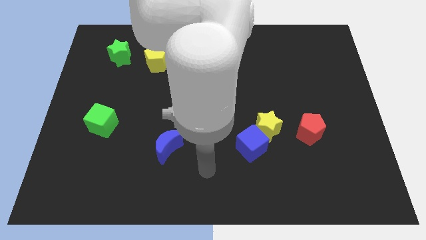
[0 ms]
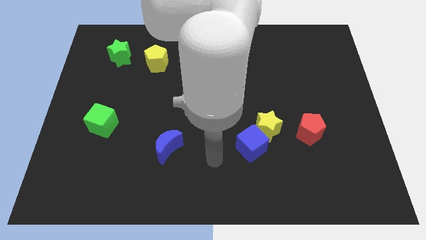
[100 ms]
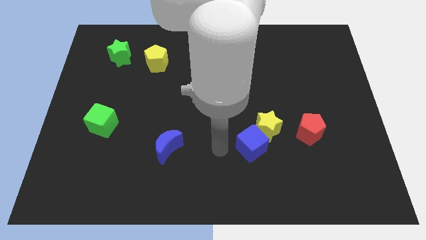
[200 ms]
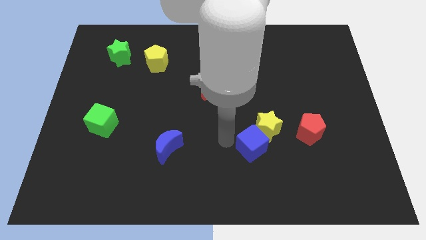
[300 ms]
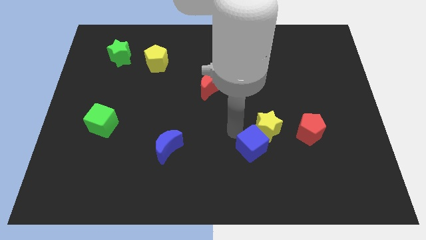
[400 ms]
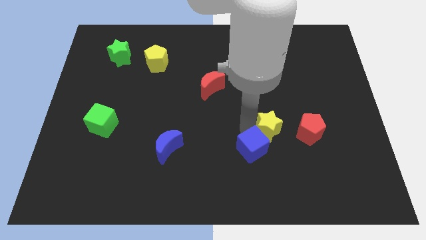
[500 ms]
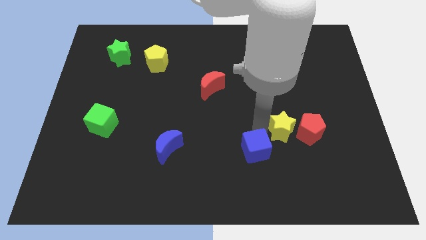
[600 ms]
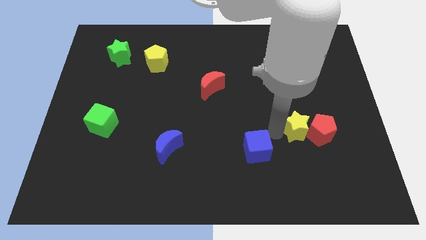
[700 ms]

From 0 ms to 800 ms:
move the blue cube away from the yellow star

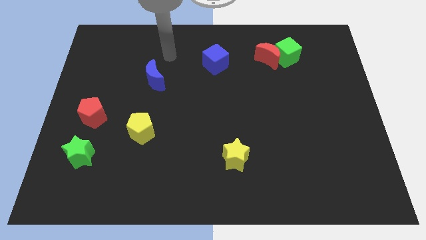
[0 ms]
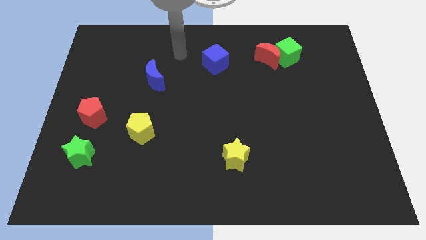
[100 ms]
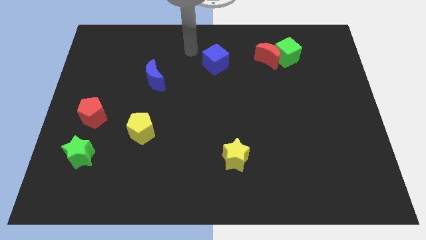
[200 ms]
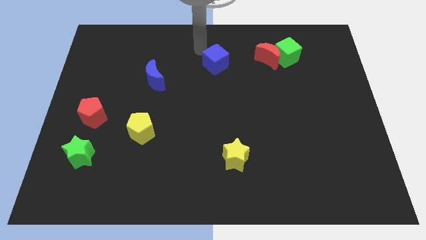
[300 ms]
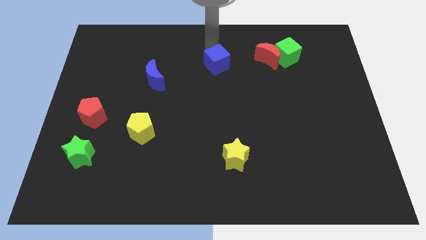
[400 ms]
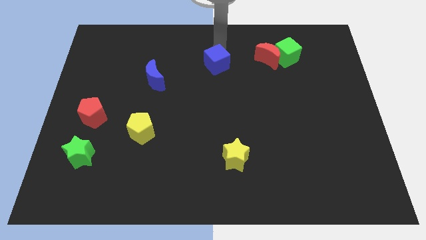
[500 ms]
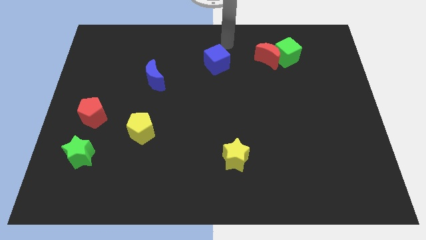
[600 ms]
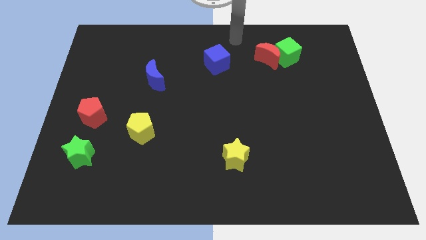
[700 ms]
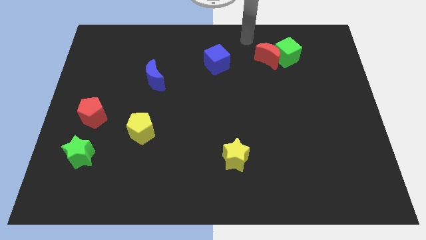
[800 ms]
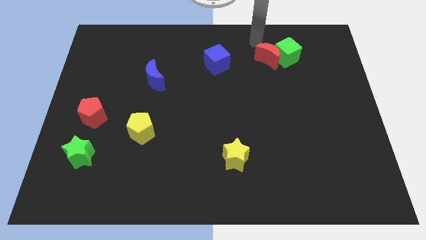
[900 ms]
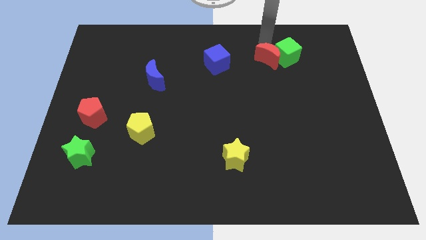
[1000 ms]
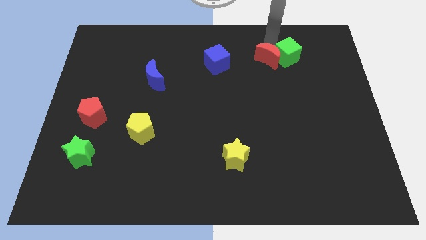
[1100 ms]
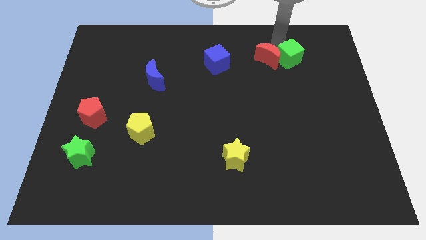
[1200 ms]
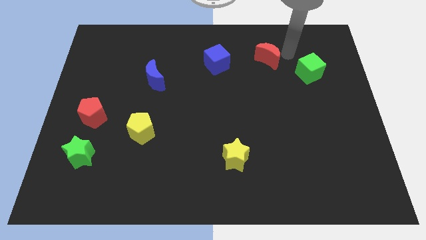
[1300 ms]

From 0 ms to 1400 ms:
pull the red moon apart from the green cube

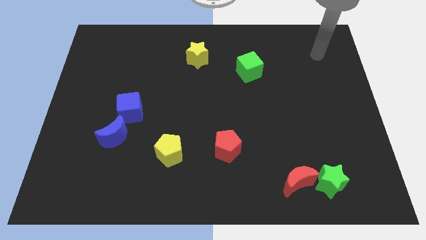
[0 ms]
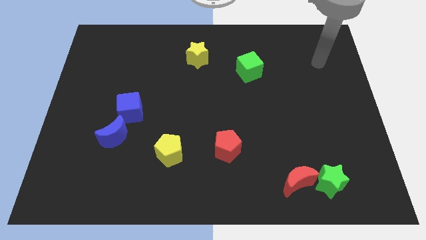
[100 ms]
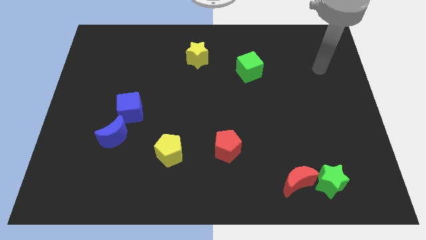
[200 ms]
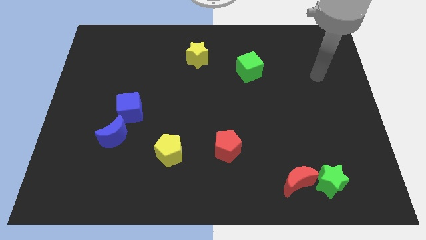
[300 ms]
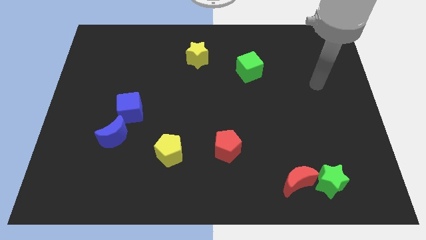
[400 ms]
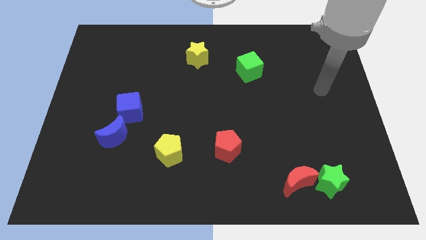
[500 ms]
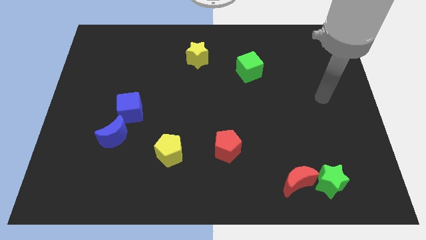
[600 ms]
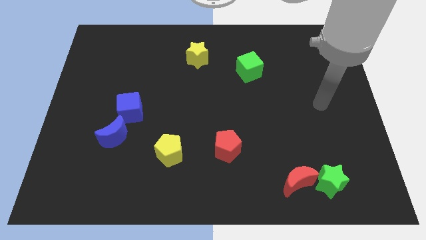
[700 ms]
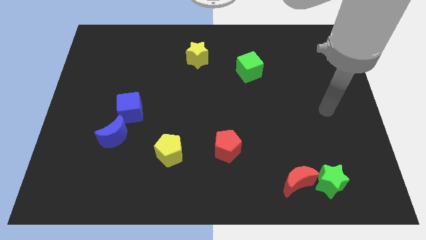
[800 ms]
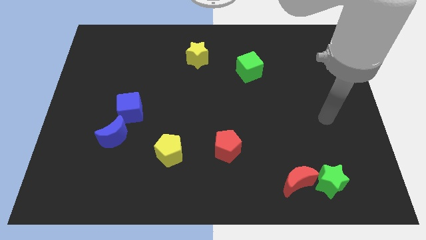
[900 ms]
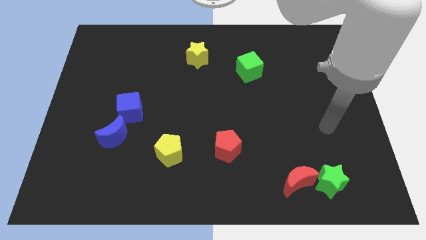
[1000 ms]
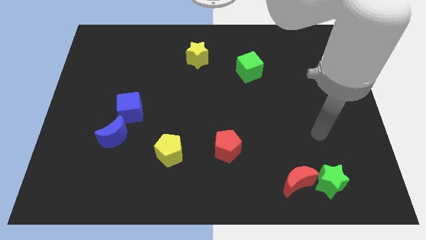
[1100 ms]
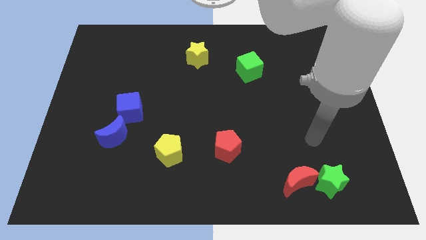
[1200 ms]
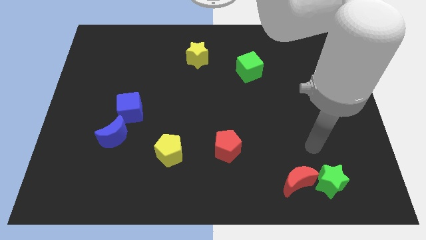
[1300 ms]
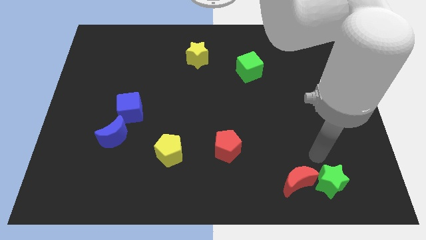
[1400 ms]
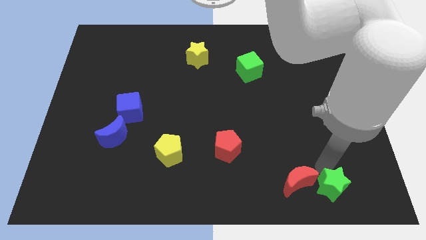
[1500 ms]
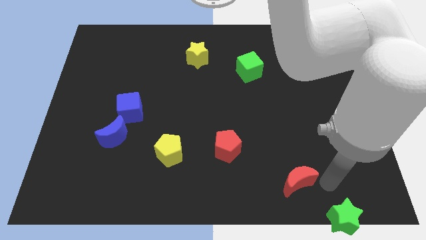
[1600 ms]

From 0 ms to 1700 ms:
separate the red moon from the green star

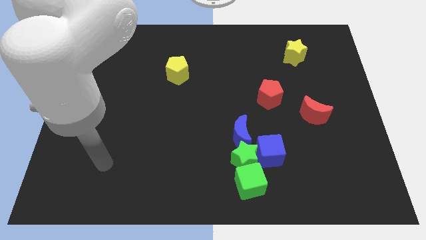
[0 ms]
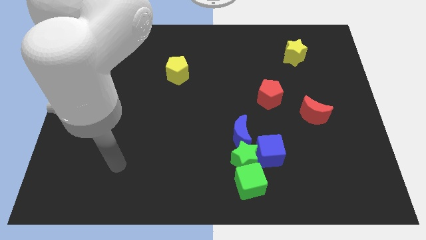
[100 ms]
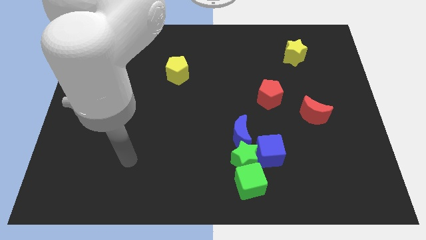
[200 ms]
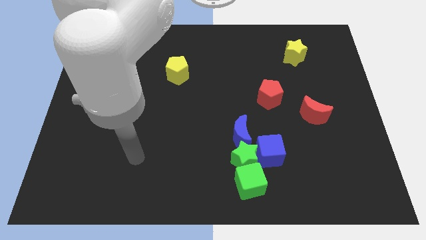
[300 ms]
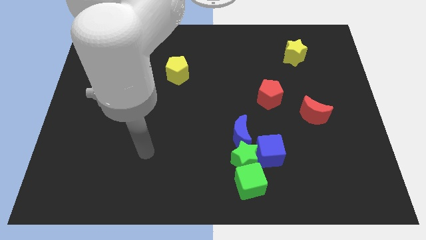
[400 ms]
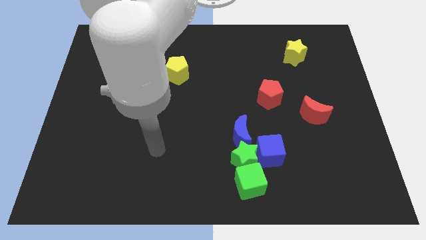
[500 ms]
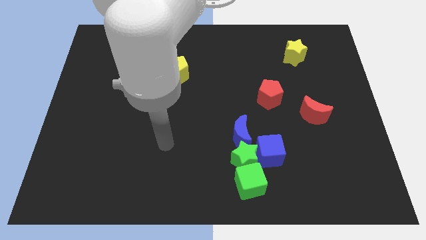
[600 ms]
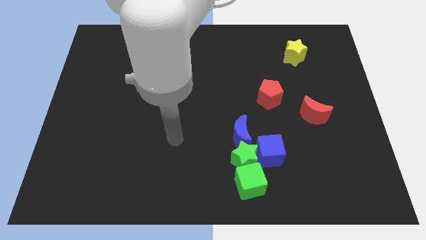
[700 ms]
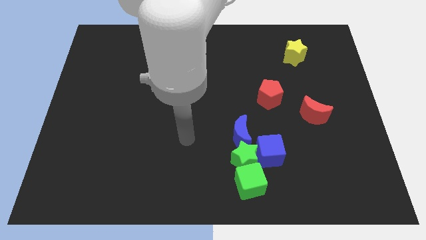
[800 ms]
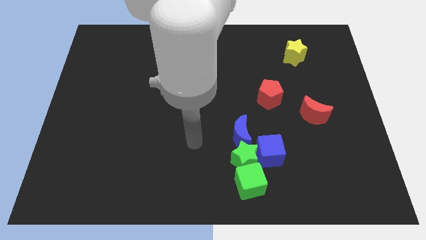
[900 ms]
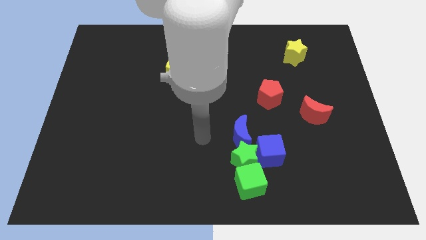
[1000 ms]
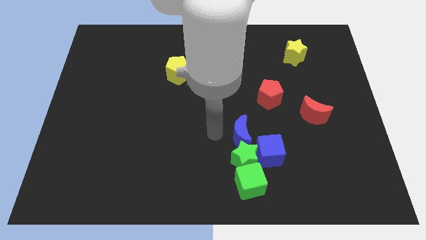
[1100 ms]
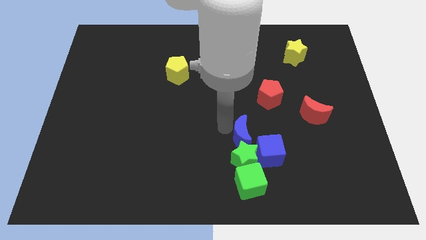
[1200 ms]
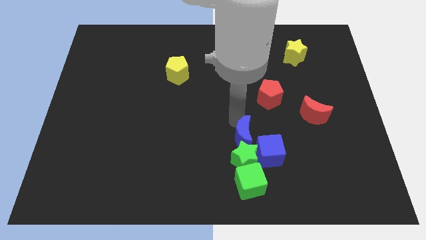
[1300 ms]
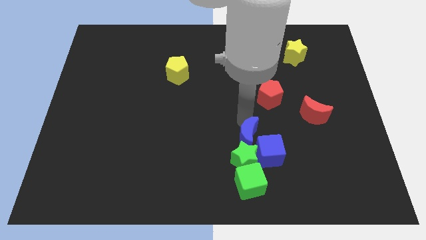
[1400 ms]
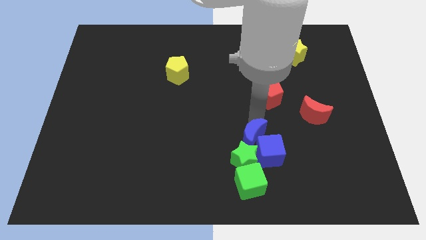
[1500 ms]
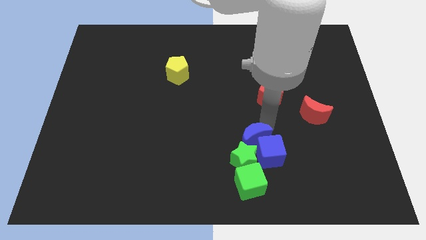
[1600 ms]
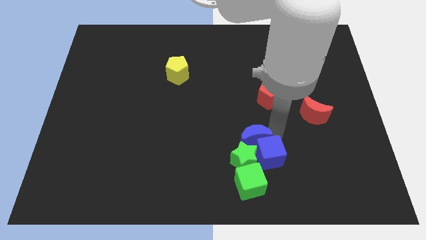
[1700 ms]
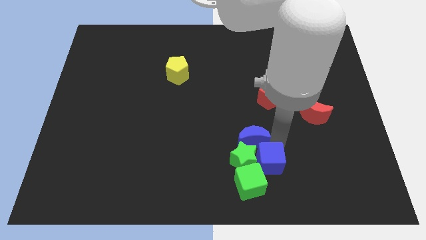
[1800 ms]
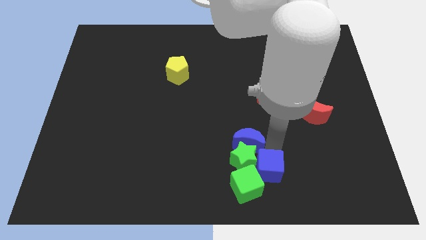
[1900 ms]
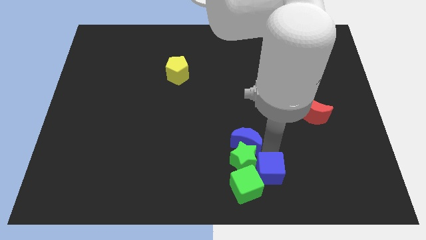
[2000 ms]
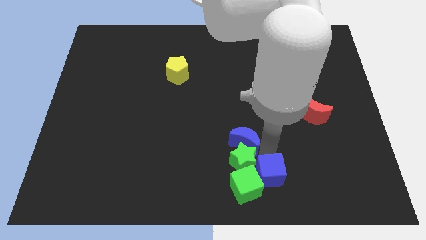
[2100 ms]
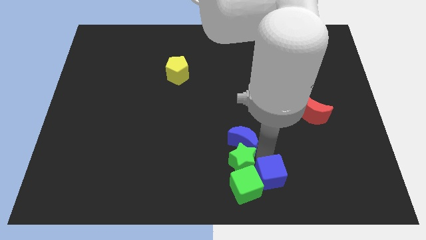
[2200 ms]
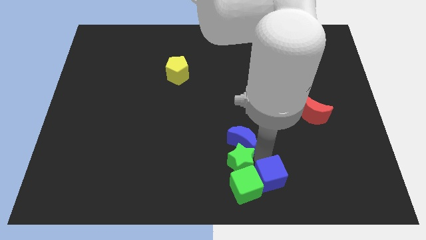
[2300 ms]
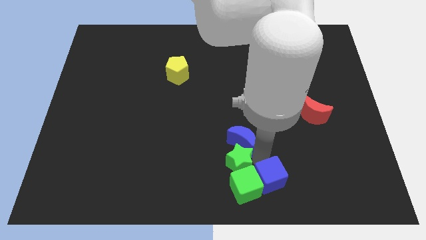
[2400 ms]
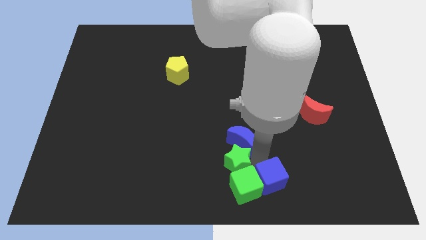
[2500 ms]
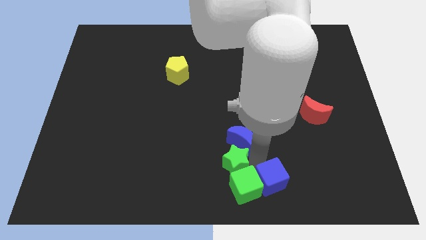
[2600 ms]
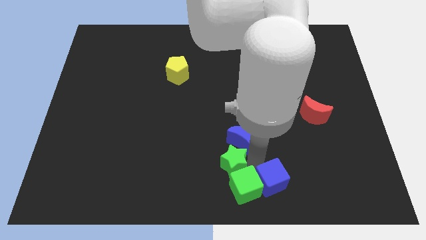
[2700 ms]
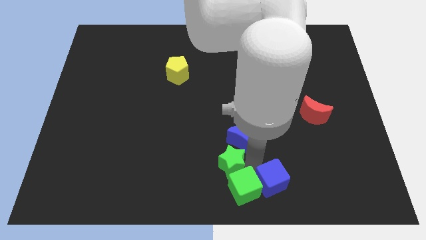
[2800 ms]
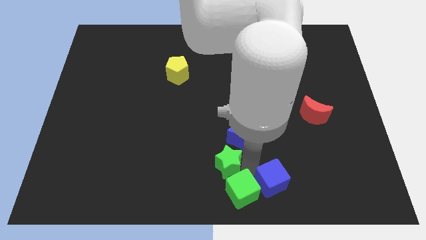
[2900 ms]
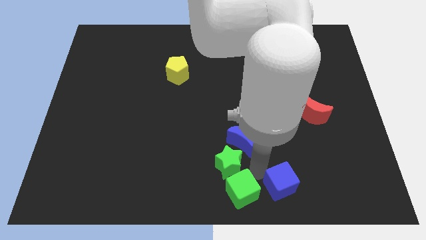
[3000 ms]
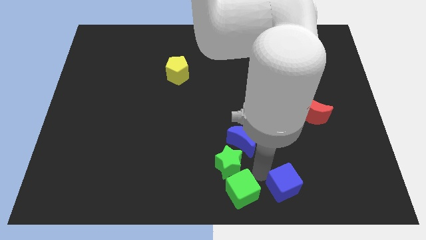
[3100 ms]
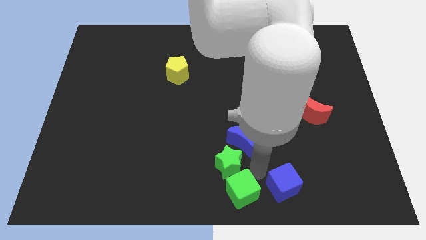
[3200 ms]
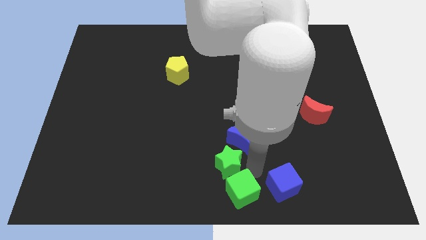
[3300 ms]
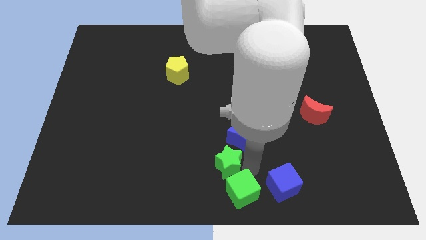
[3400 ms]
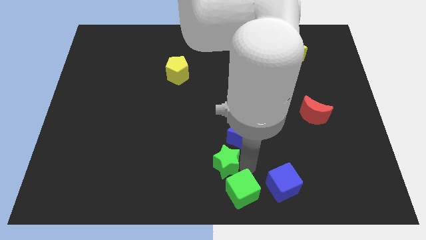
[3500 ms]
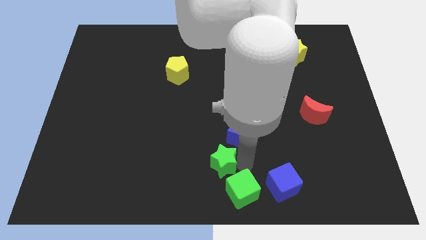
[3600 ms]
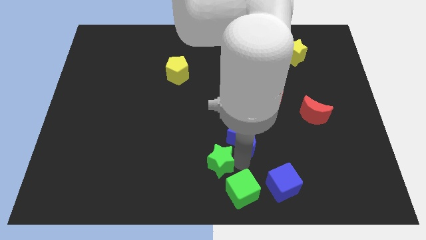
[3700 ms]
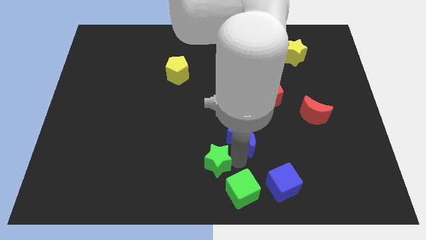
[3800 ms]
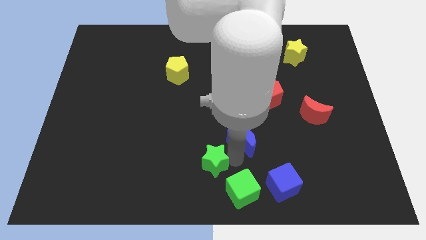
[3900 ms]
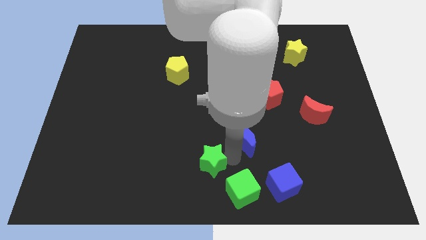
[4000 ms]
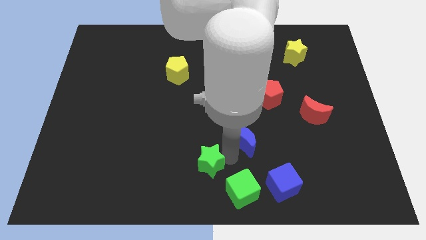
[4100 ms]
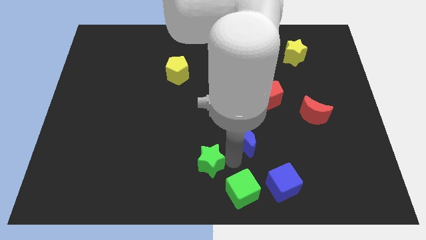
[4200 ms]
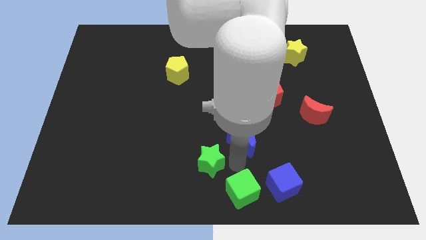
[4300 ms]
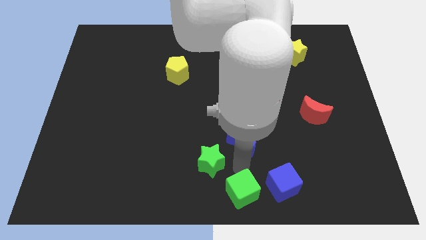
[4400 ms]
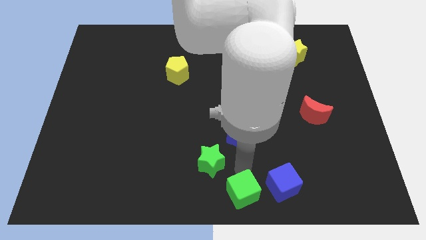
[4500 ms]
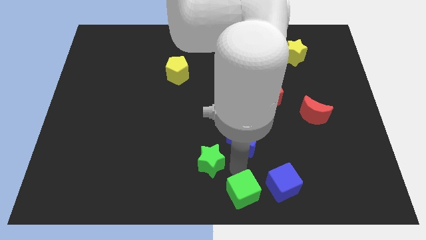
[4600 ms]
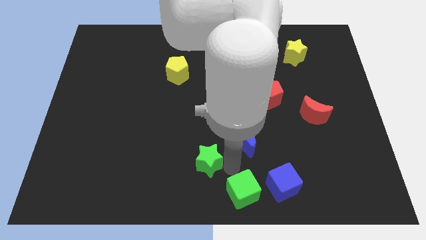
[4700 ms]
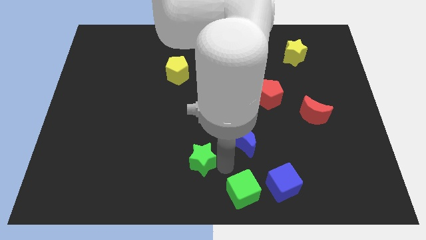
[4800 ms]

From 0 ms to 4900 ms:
pull the green star apart from the clump

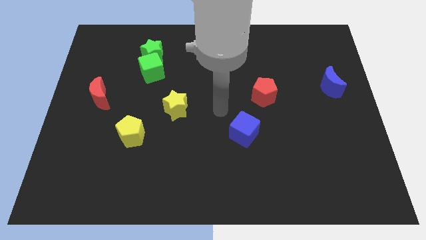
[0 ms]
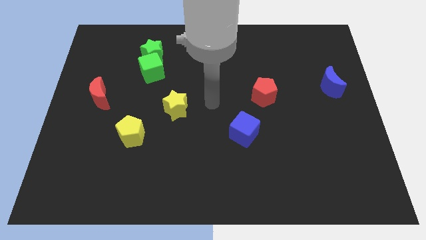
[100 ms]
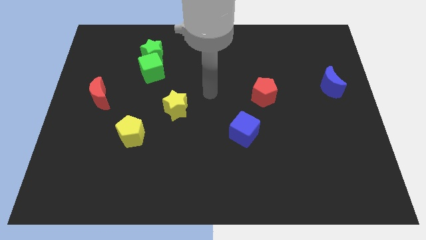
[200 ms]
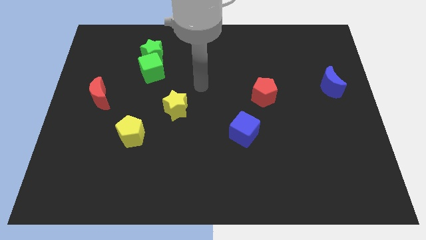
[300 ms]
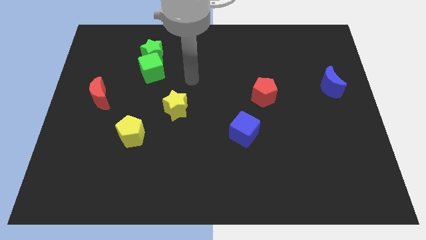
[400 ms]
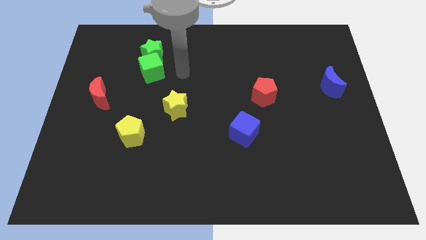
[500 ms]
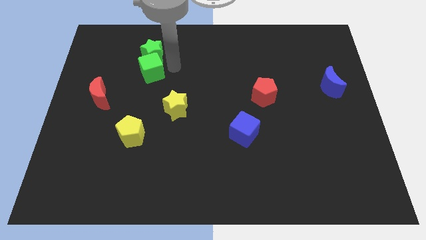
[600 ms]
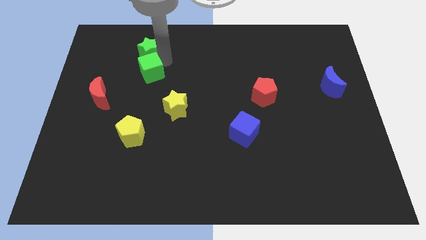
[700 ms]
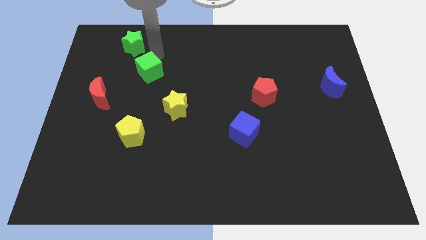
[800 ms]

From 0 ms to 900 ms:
separate the green cube from the green star
